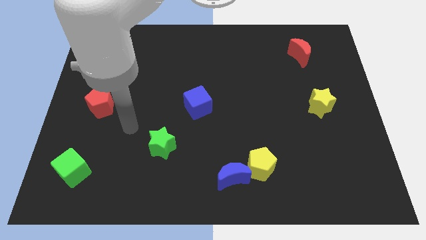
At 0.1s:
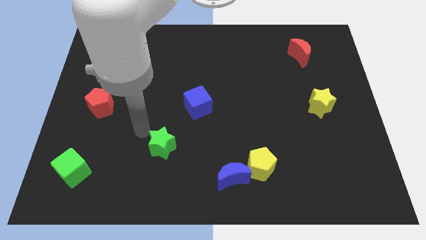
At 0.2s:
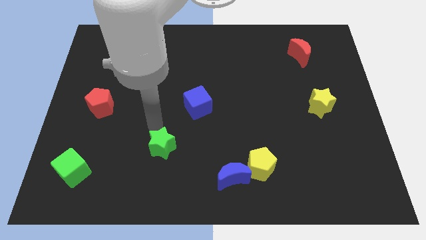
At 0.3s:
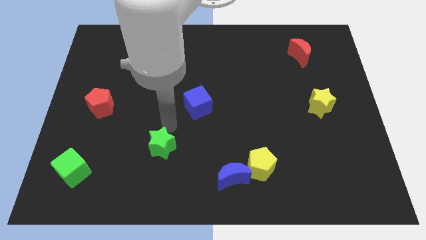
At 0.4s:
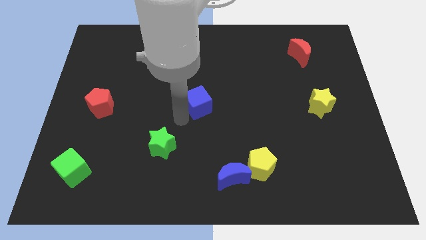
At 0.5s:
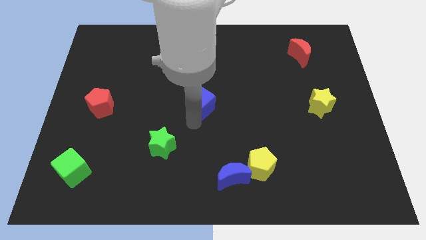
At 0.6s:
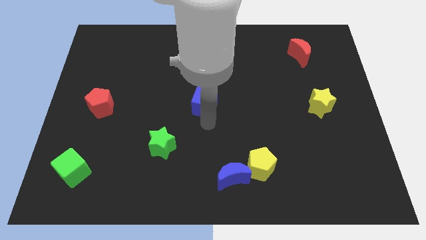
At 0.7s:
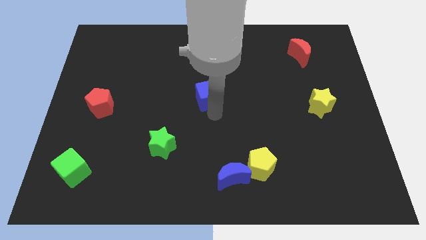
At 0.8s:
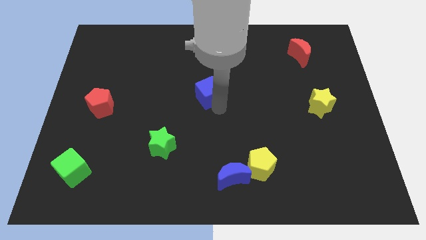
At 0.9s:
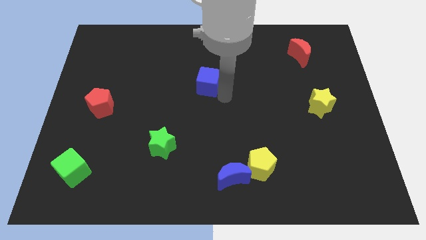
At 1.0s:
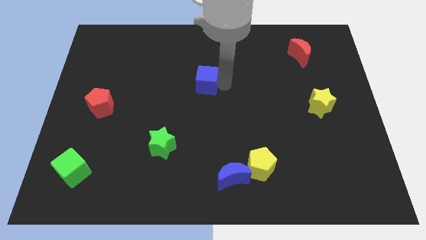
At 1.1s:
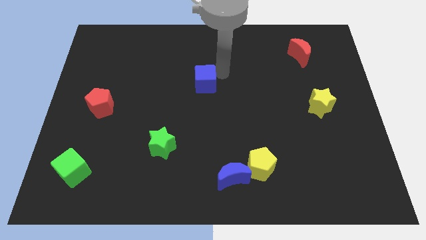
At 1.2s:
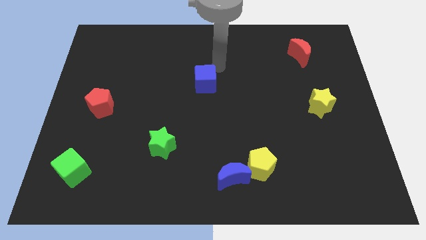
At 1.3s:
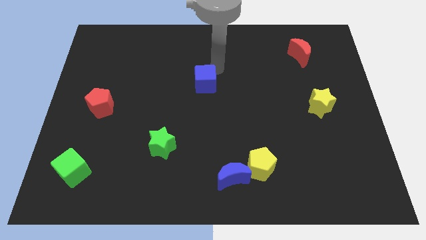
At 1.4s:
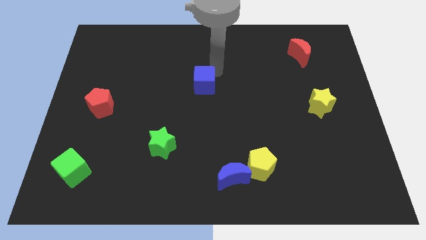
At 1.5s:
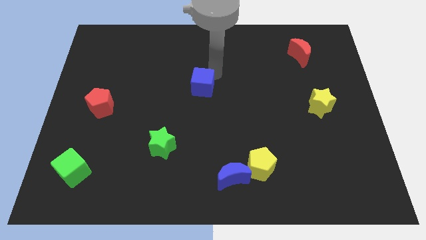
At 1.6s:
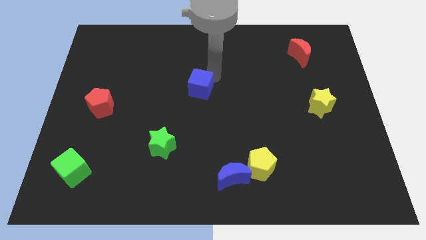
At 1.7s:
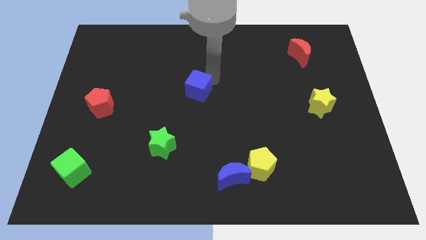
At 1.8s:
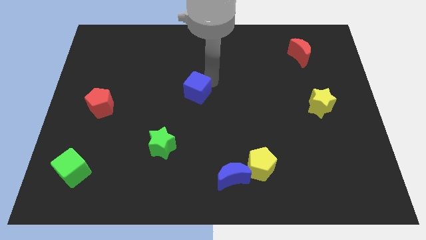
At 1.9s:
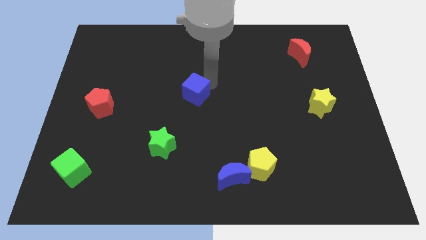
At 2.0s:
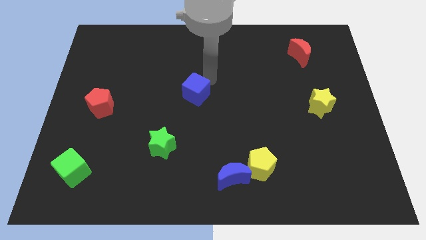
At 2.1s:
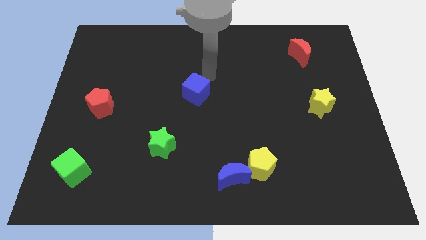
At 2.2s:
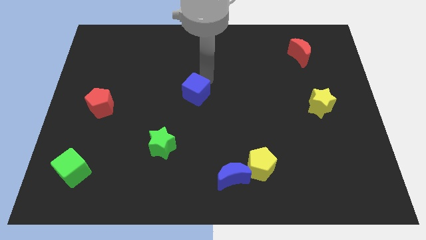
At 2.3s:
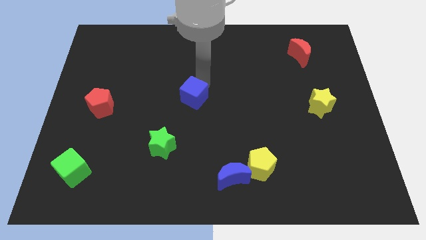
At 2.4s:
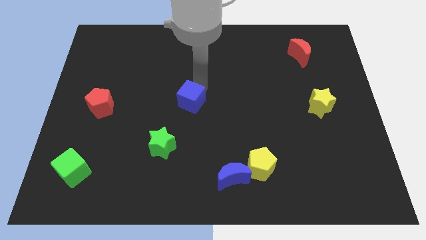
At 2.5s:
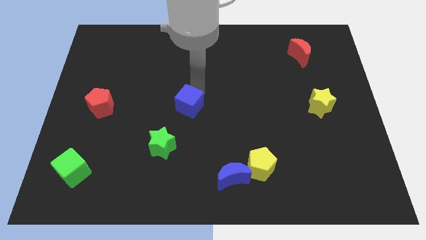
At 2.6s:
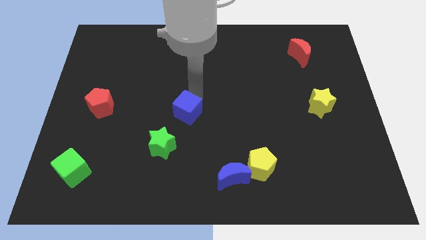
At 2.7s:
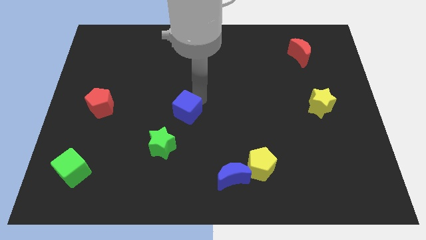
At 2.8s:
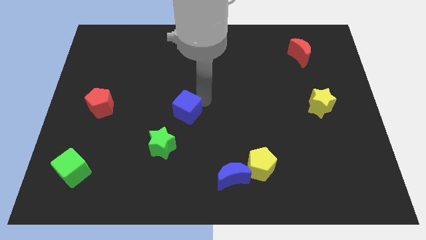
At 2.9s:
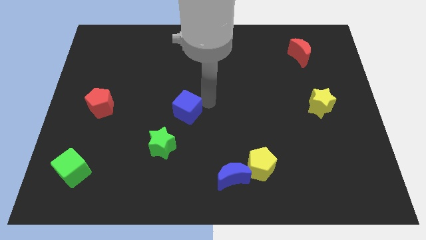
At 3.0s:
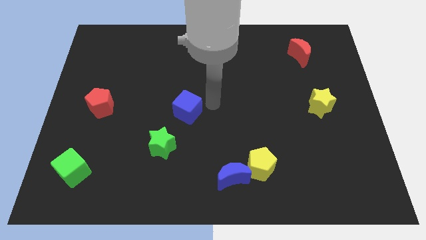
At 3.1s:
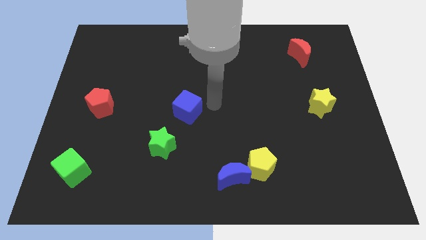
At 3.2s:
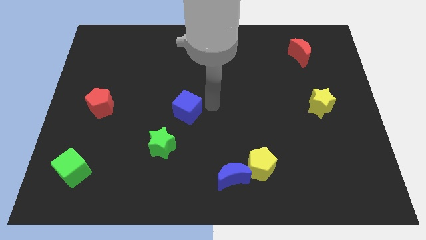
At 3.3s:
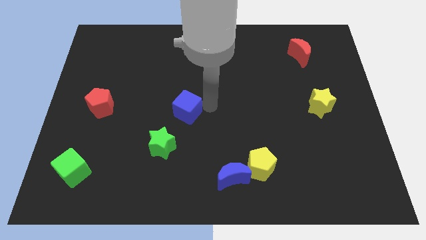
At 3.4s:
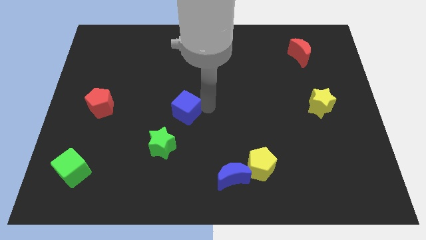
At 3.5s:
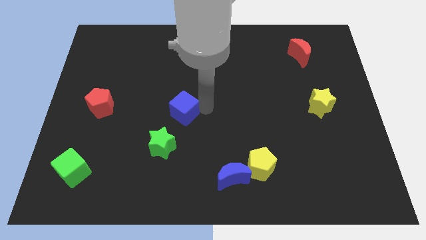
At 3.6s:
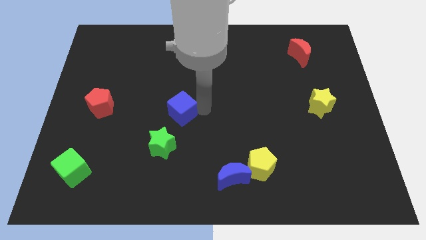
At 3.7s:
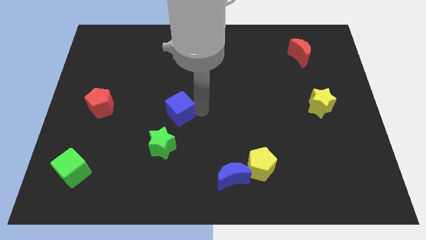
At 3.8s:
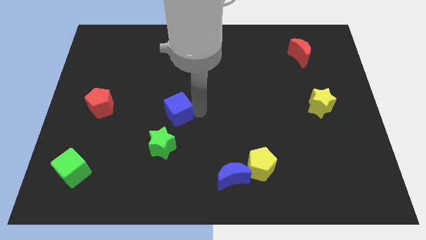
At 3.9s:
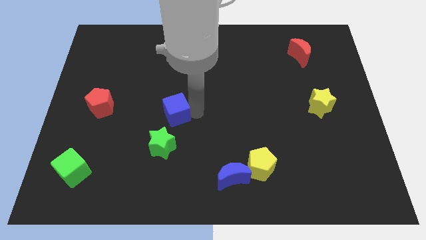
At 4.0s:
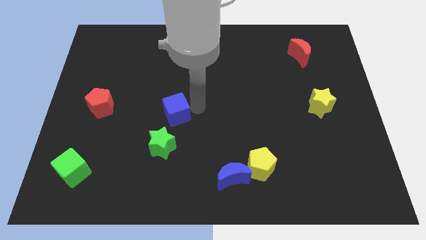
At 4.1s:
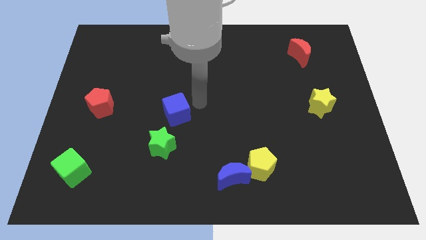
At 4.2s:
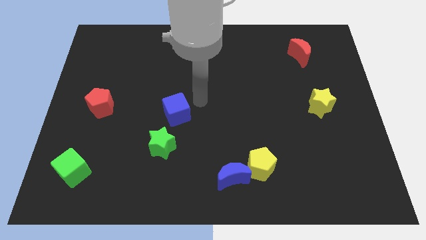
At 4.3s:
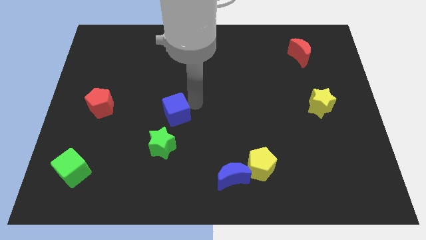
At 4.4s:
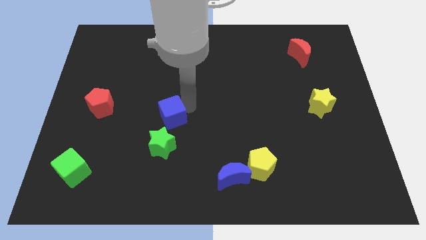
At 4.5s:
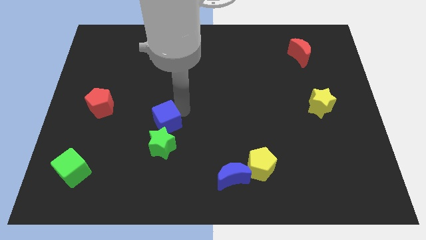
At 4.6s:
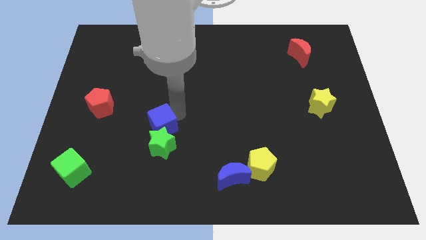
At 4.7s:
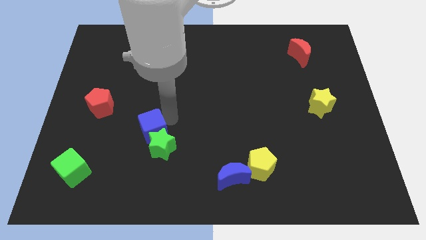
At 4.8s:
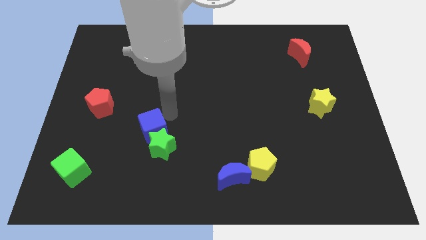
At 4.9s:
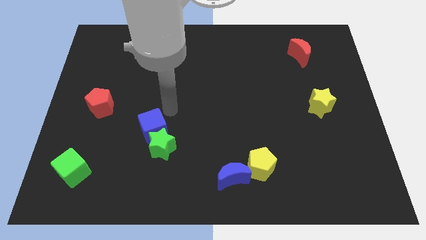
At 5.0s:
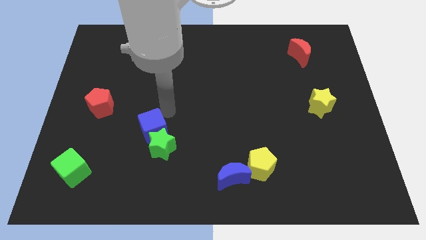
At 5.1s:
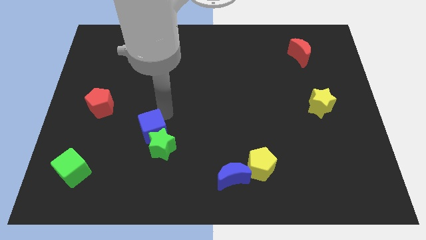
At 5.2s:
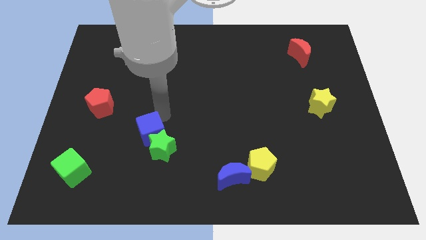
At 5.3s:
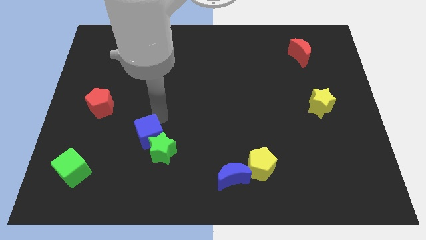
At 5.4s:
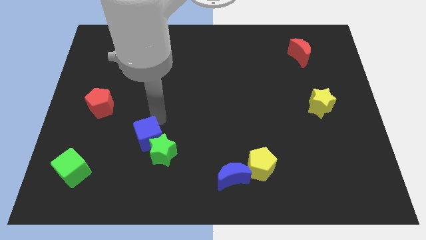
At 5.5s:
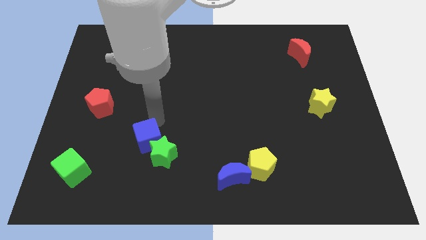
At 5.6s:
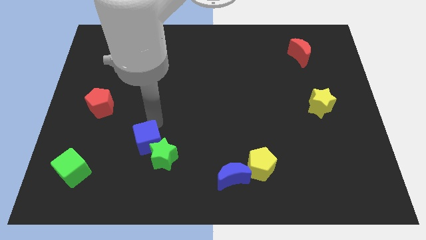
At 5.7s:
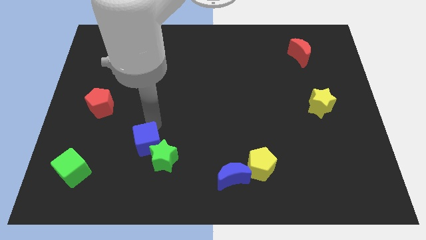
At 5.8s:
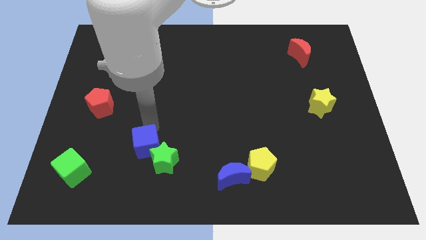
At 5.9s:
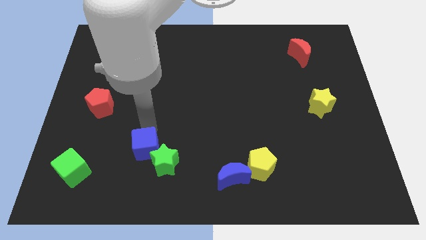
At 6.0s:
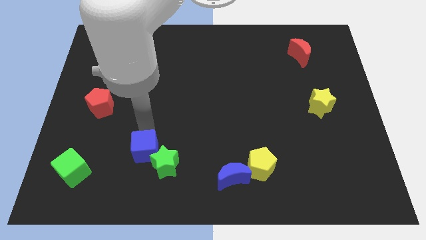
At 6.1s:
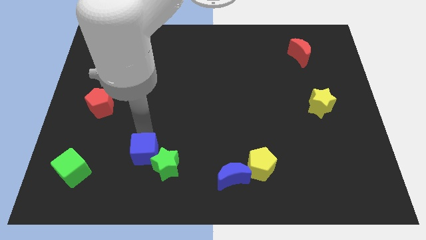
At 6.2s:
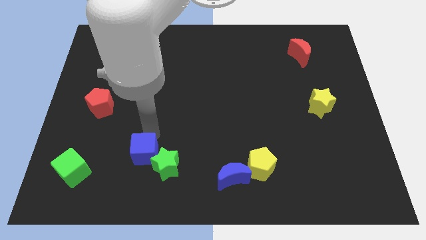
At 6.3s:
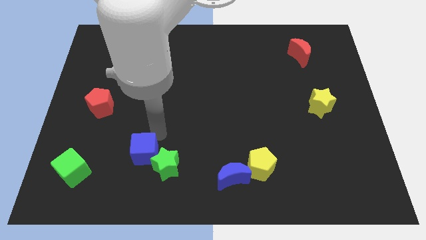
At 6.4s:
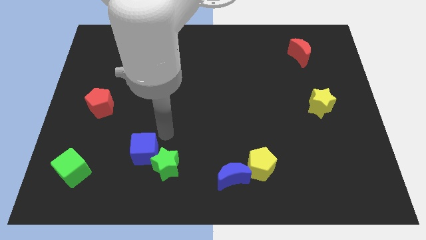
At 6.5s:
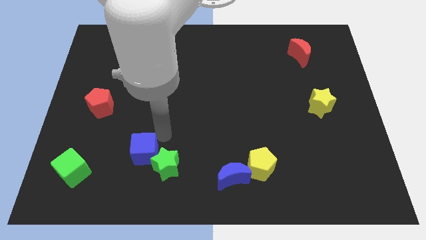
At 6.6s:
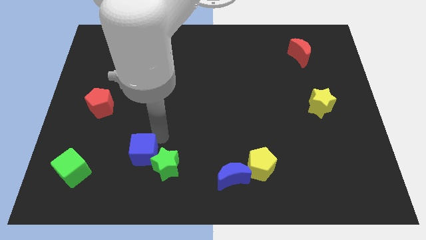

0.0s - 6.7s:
move the blue cube to the right side of the green cube
